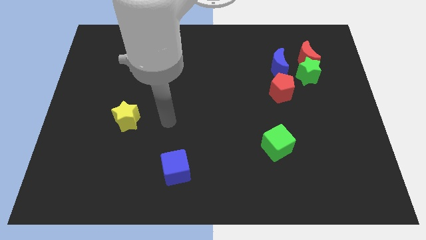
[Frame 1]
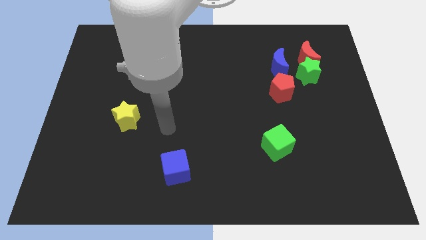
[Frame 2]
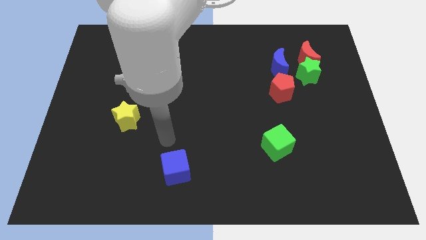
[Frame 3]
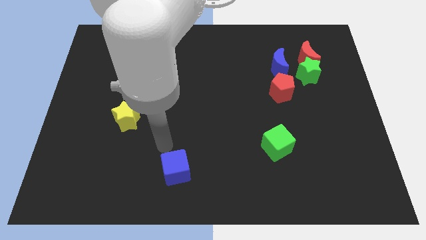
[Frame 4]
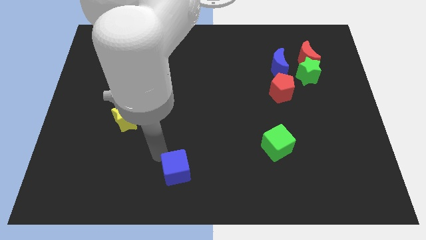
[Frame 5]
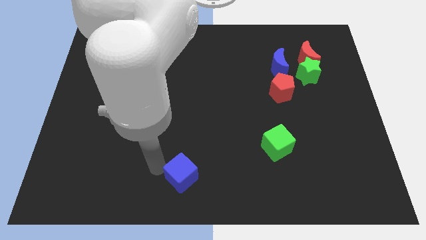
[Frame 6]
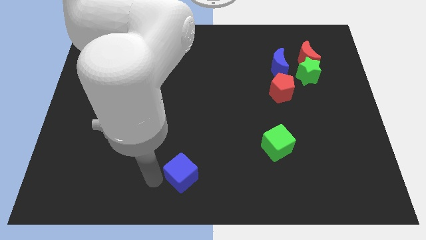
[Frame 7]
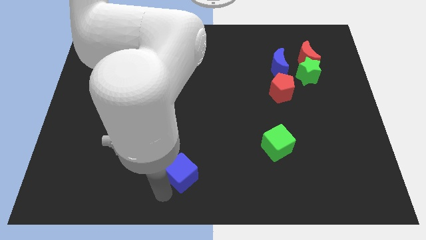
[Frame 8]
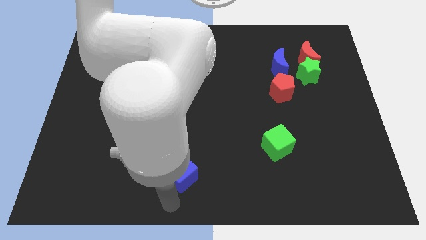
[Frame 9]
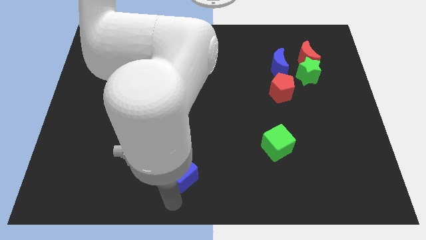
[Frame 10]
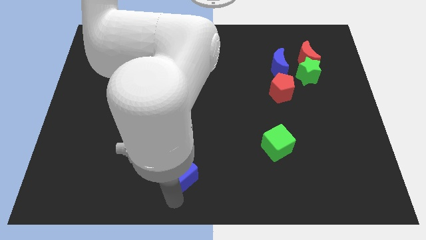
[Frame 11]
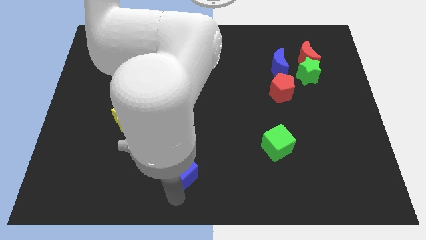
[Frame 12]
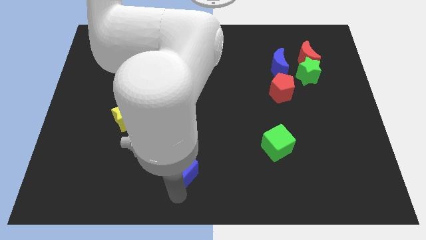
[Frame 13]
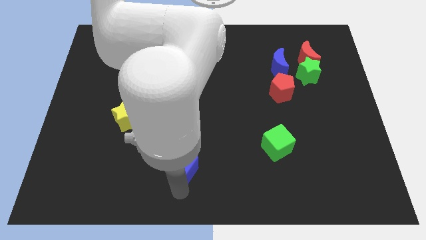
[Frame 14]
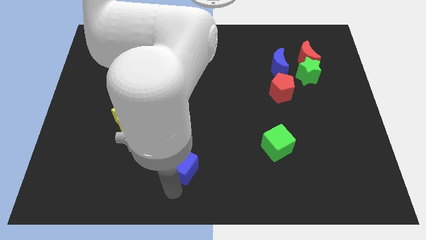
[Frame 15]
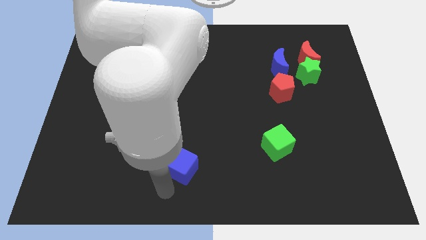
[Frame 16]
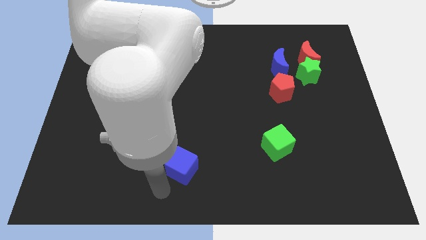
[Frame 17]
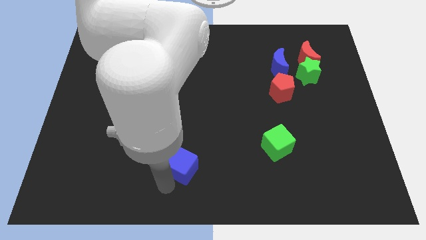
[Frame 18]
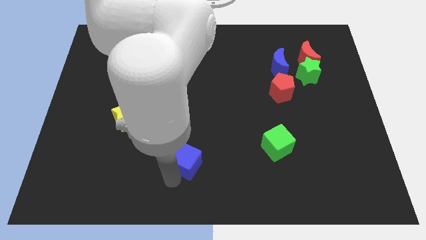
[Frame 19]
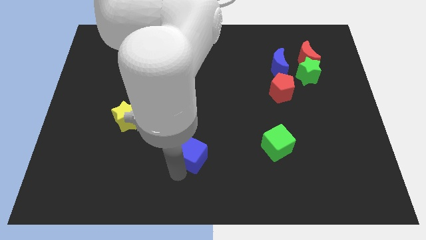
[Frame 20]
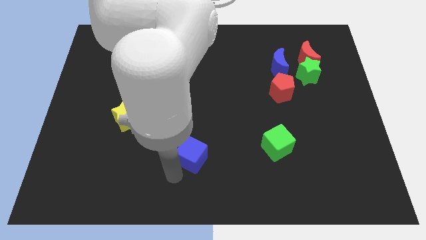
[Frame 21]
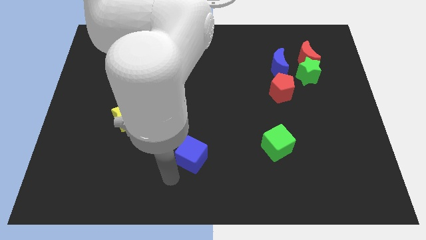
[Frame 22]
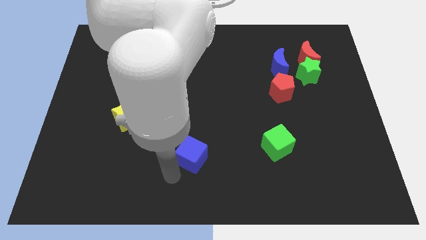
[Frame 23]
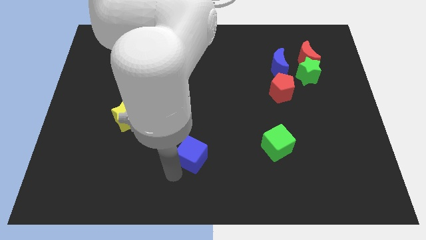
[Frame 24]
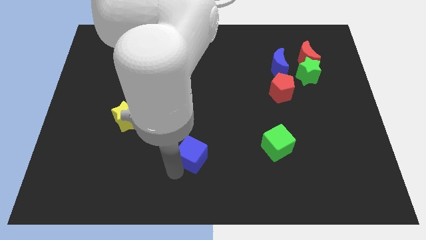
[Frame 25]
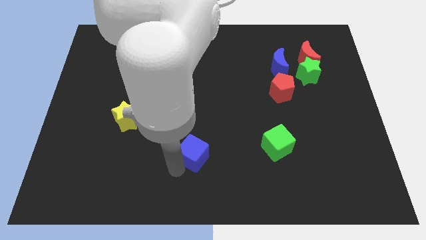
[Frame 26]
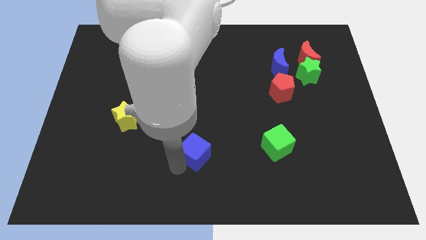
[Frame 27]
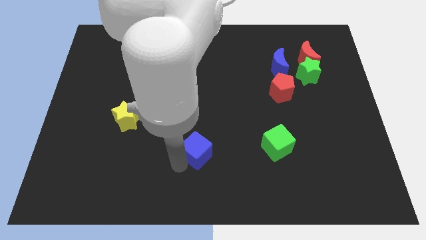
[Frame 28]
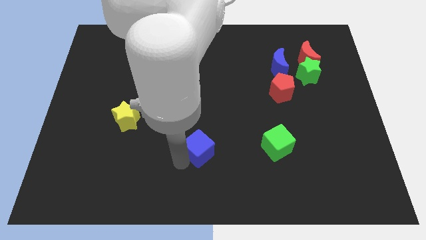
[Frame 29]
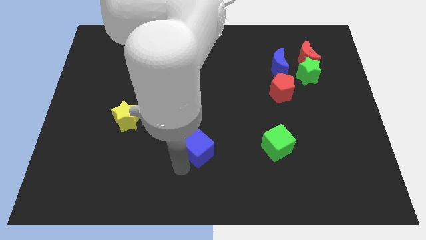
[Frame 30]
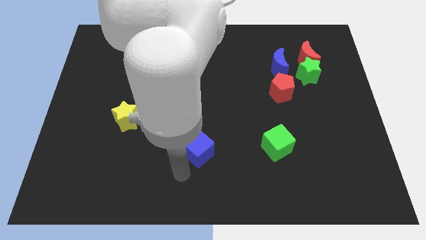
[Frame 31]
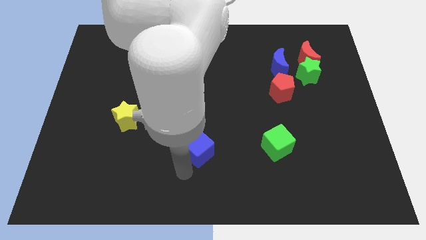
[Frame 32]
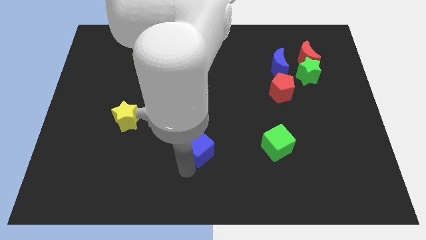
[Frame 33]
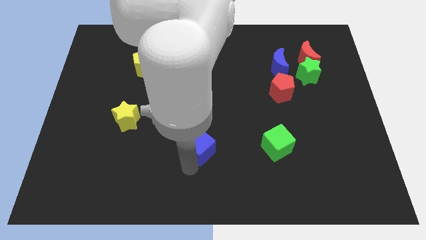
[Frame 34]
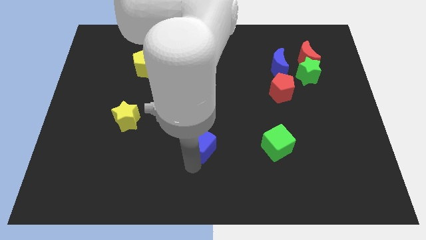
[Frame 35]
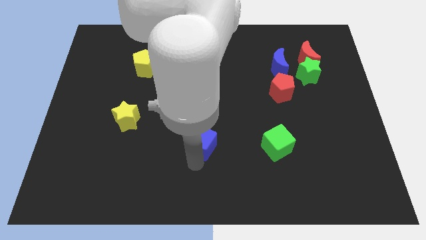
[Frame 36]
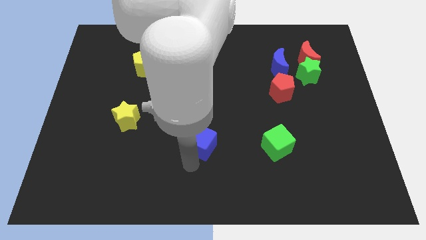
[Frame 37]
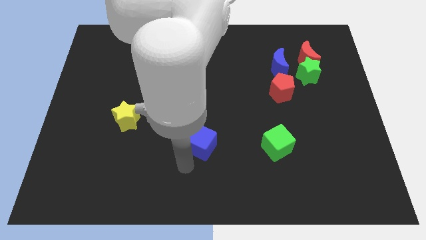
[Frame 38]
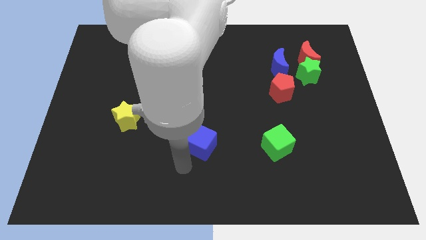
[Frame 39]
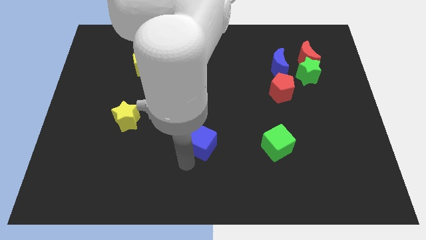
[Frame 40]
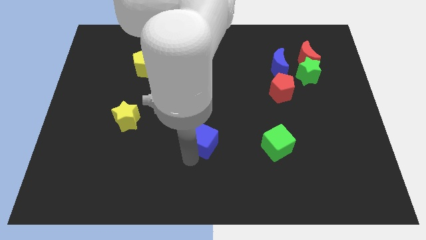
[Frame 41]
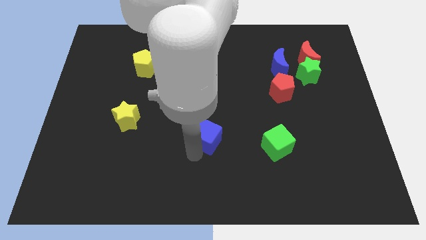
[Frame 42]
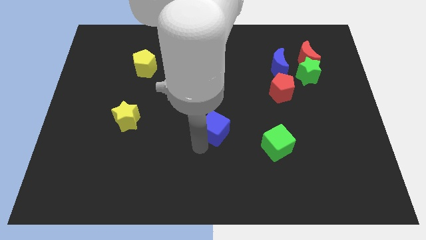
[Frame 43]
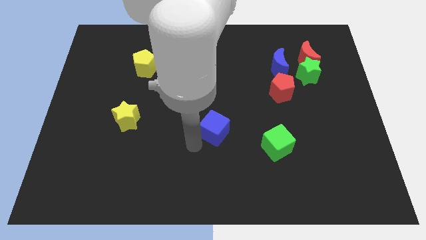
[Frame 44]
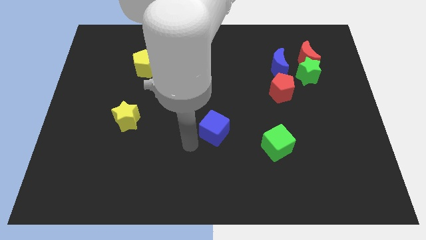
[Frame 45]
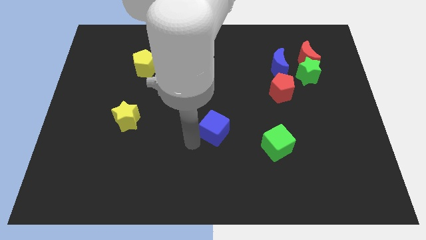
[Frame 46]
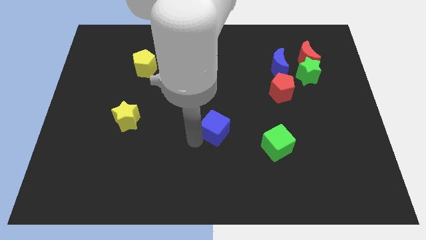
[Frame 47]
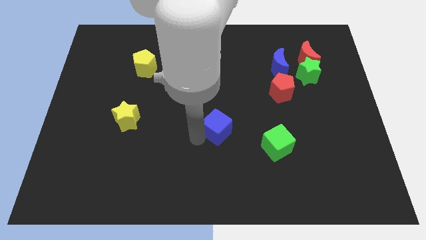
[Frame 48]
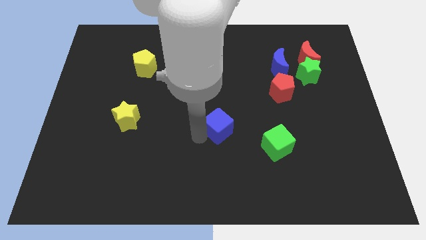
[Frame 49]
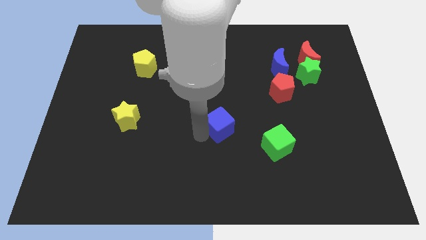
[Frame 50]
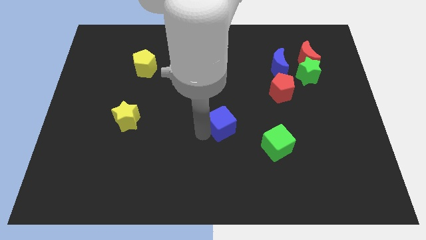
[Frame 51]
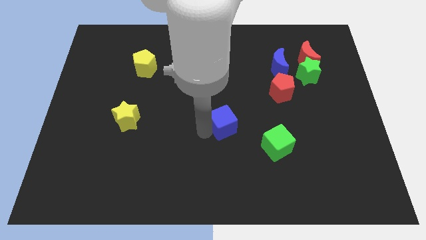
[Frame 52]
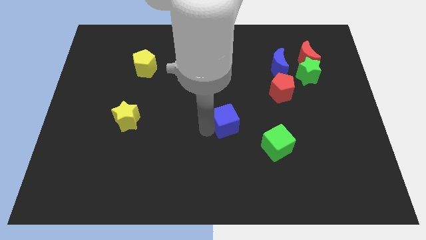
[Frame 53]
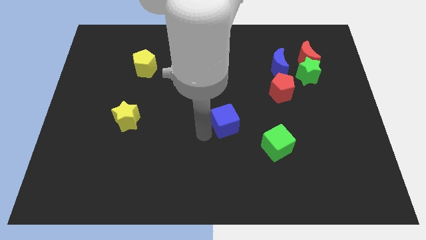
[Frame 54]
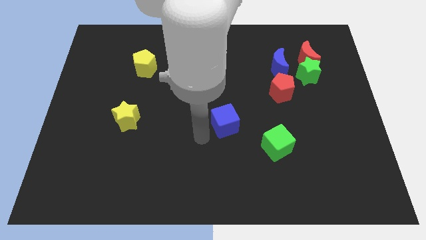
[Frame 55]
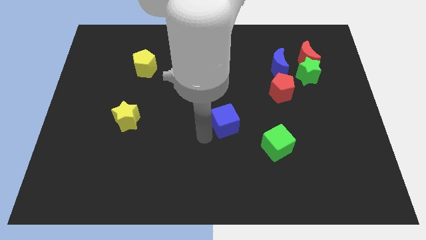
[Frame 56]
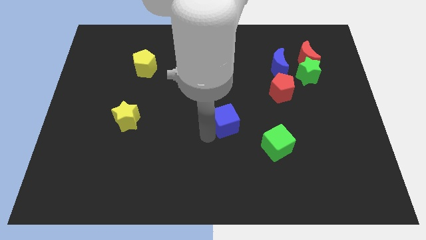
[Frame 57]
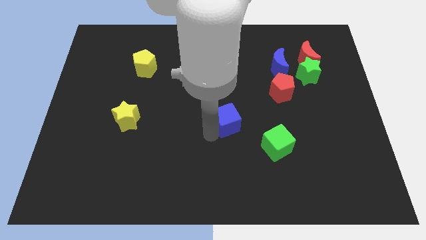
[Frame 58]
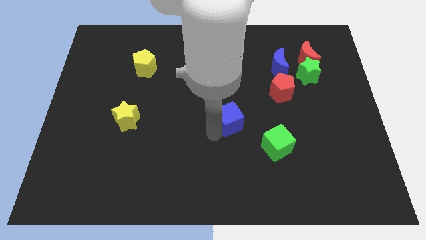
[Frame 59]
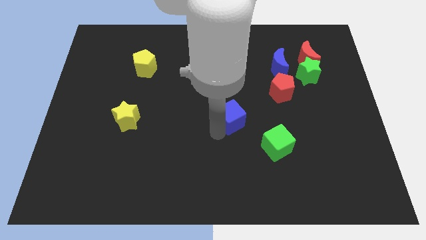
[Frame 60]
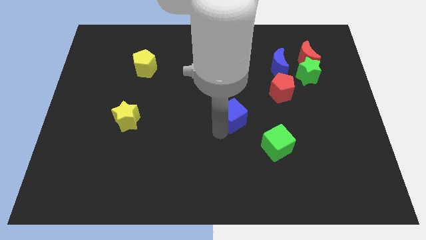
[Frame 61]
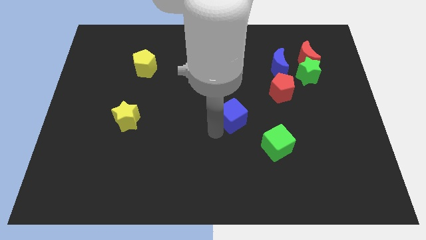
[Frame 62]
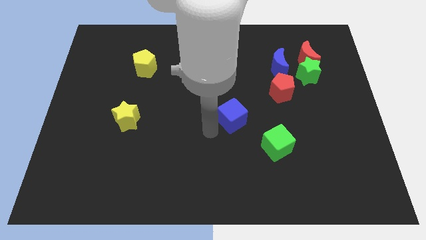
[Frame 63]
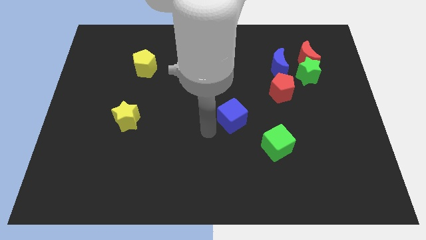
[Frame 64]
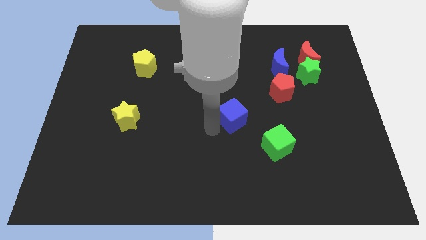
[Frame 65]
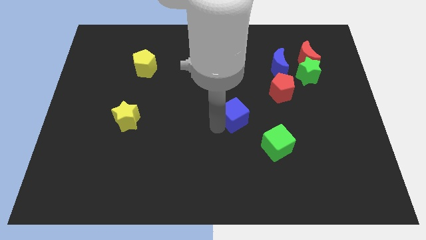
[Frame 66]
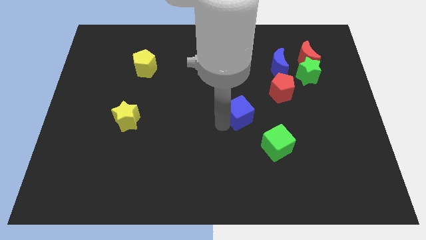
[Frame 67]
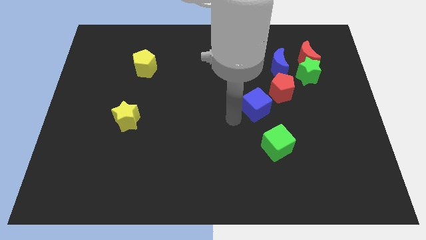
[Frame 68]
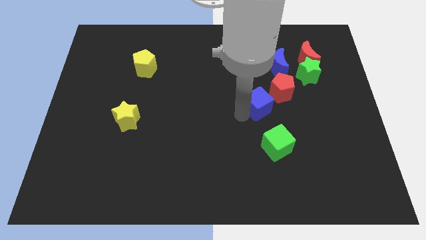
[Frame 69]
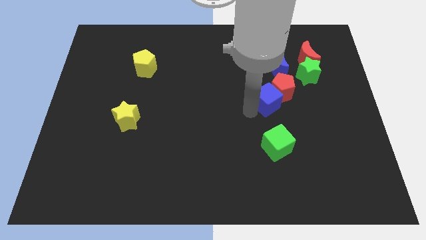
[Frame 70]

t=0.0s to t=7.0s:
push the blue cube close to the red pentagon

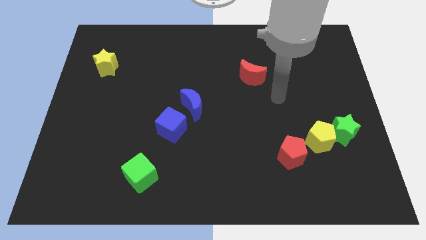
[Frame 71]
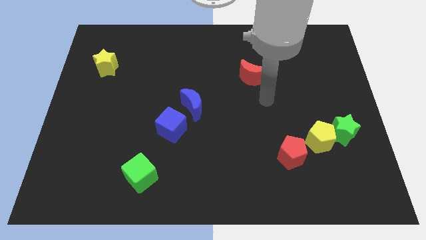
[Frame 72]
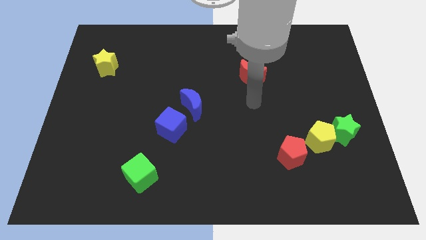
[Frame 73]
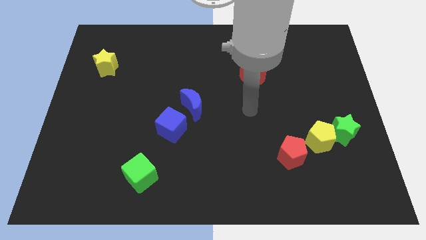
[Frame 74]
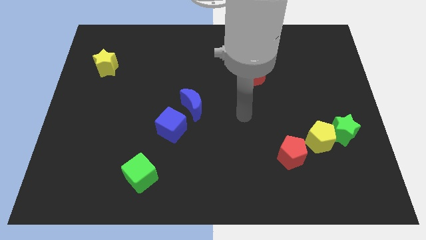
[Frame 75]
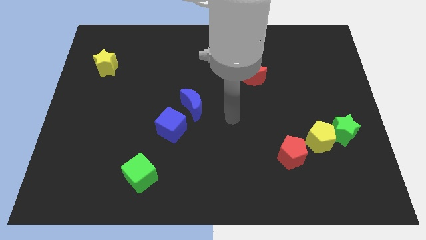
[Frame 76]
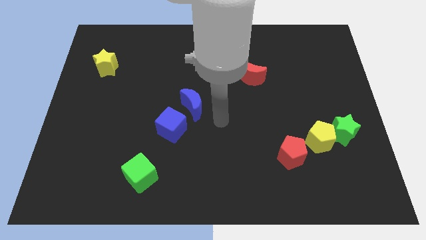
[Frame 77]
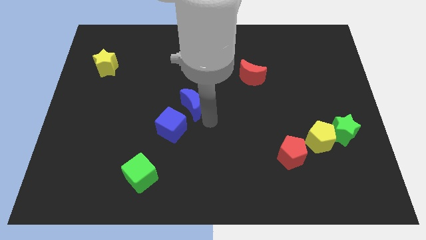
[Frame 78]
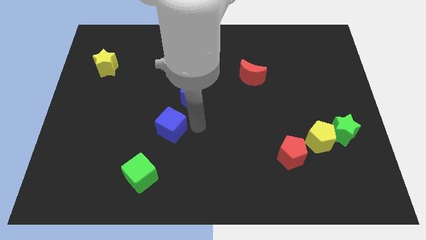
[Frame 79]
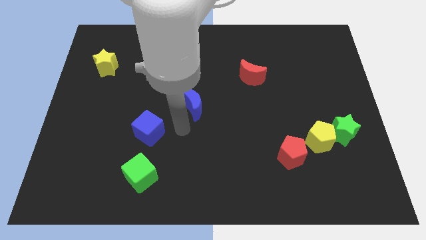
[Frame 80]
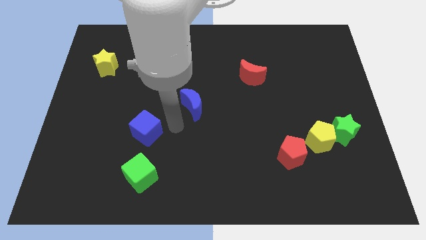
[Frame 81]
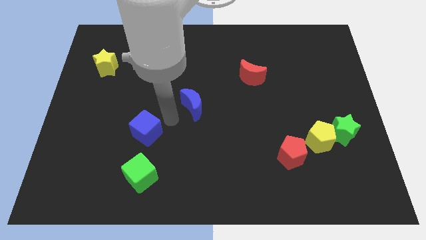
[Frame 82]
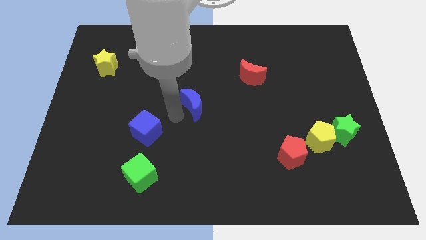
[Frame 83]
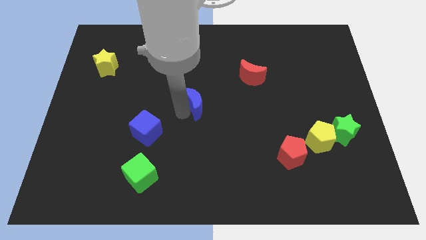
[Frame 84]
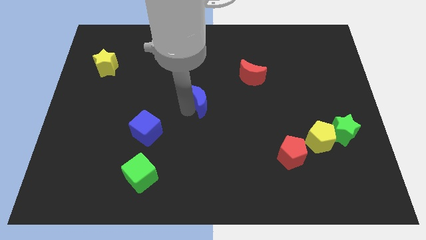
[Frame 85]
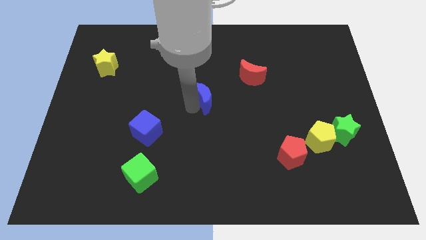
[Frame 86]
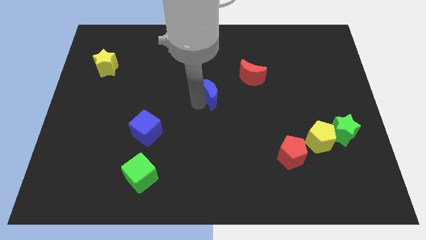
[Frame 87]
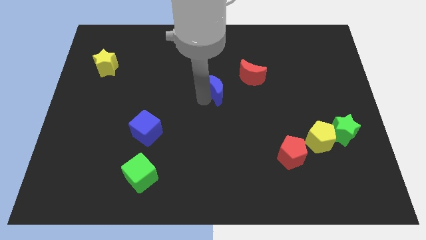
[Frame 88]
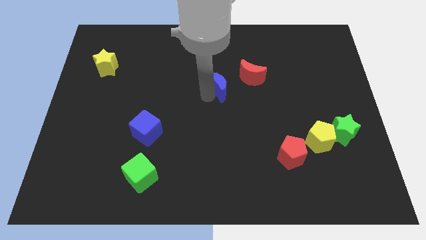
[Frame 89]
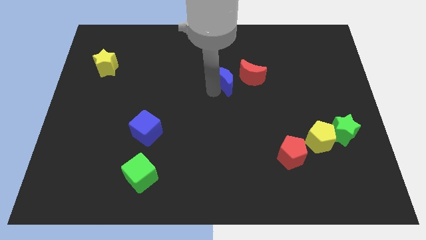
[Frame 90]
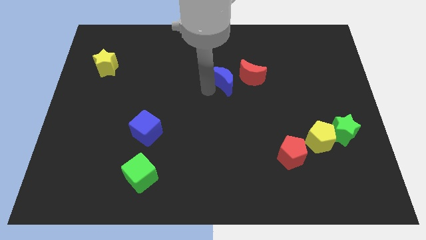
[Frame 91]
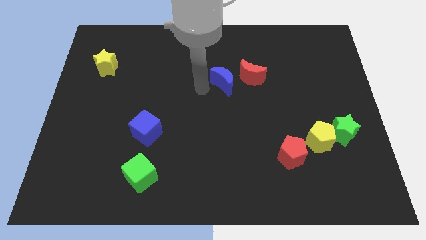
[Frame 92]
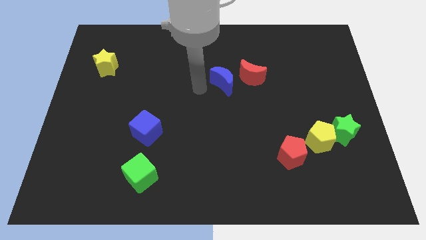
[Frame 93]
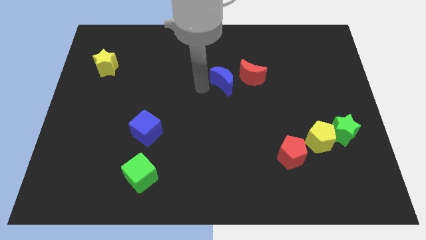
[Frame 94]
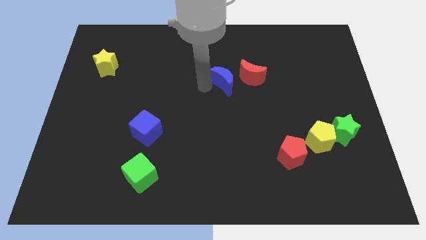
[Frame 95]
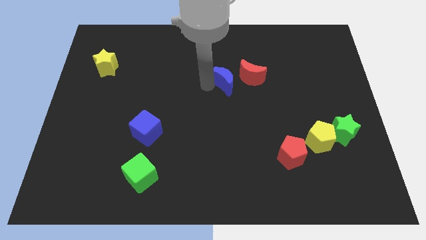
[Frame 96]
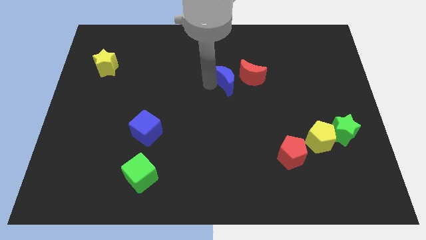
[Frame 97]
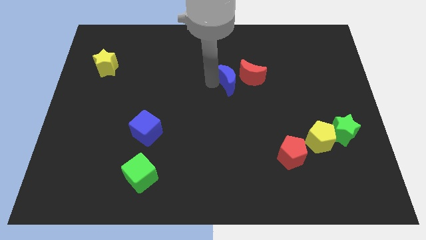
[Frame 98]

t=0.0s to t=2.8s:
put the blue moon next to the red moon
